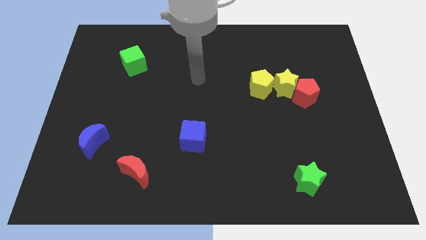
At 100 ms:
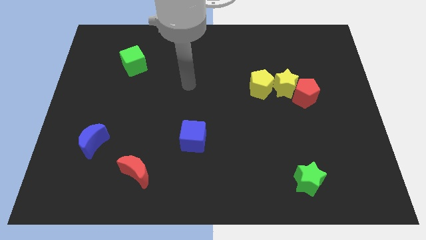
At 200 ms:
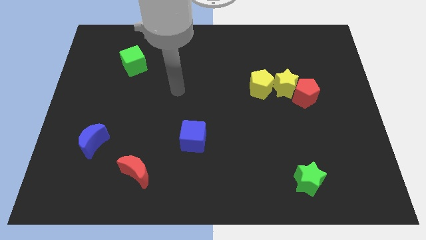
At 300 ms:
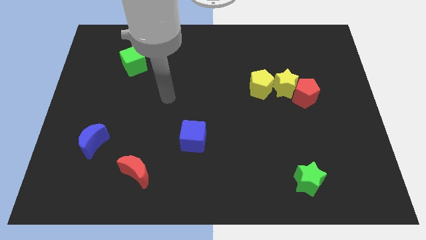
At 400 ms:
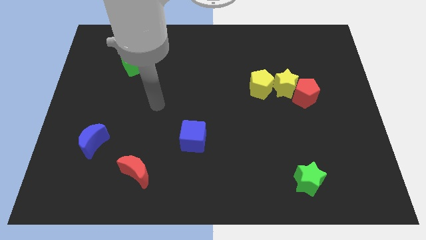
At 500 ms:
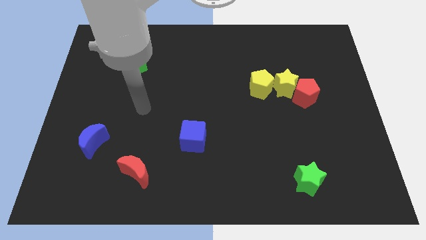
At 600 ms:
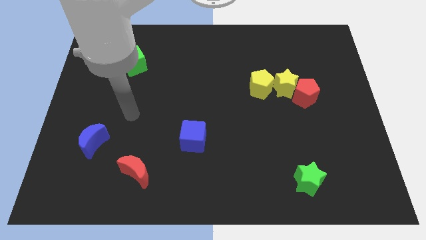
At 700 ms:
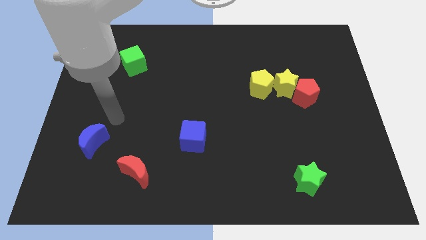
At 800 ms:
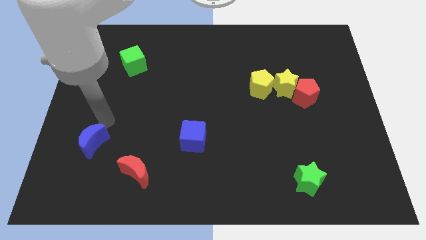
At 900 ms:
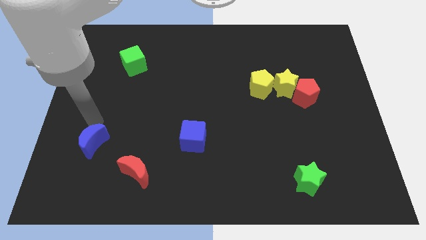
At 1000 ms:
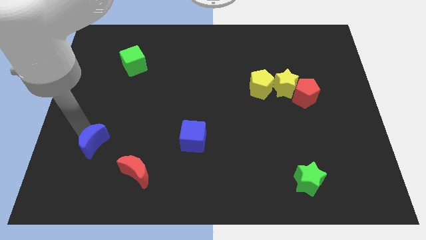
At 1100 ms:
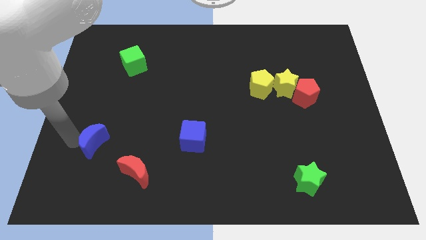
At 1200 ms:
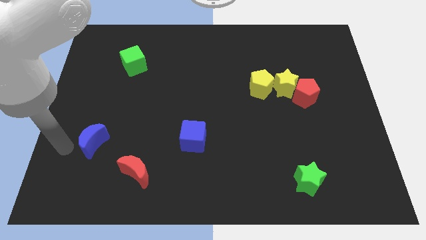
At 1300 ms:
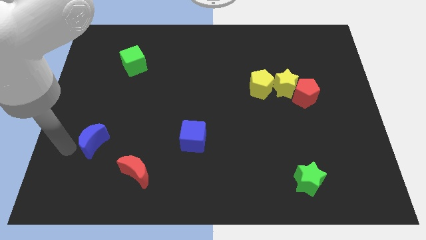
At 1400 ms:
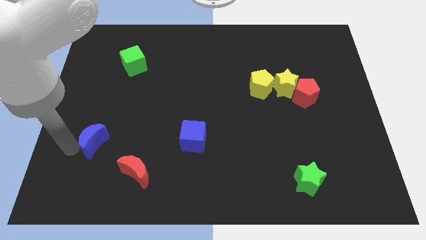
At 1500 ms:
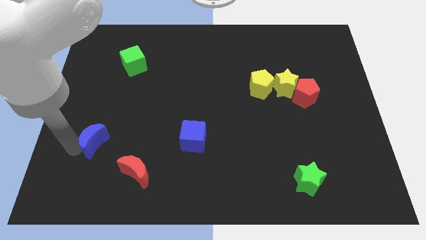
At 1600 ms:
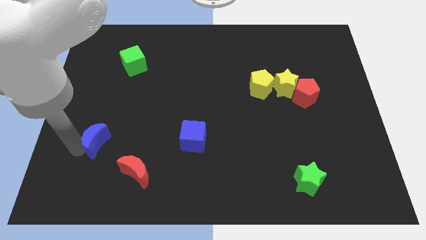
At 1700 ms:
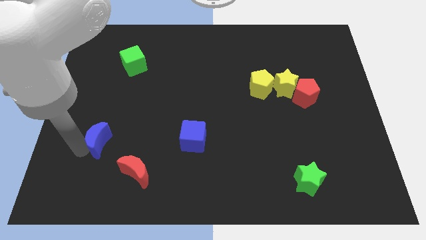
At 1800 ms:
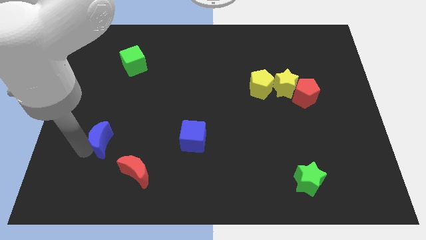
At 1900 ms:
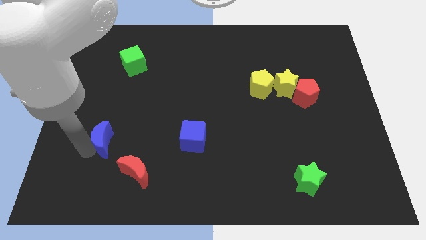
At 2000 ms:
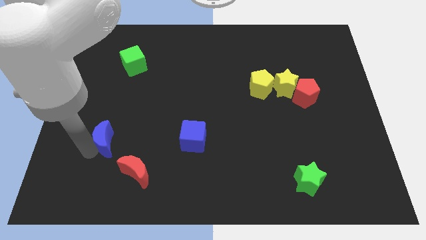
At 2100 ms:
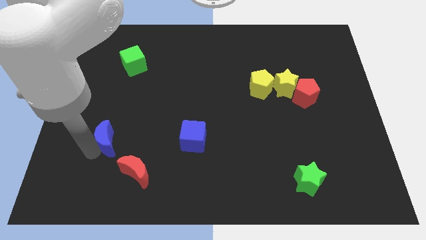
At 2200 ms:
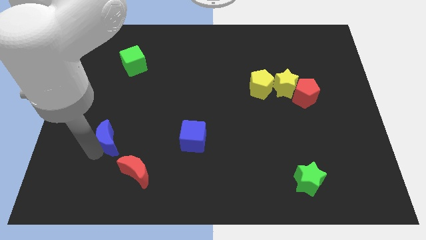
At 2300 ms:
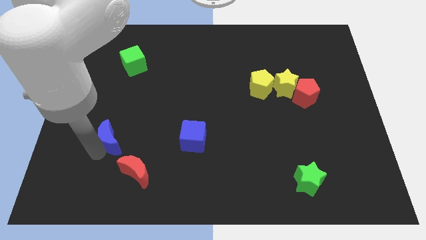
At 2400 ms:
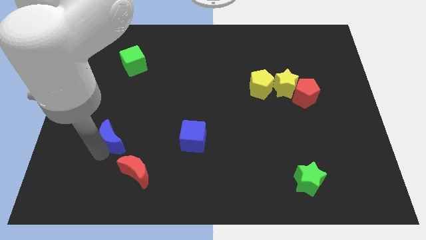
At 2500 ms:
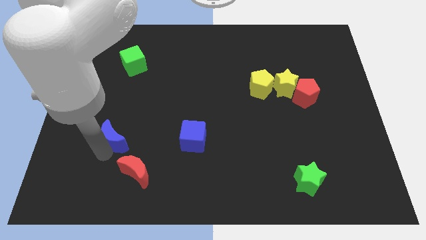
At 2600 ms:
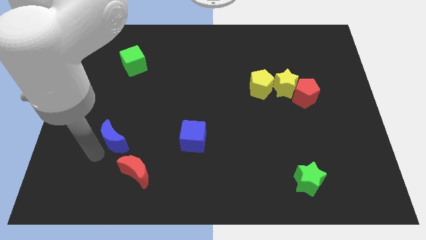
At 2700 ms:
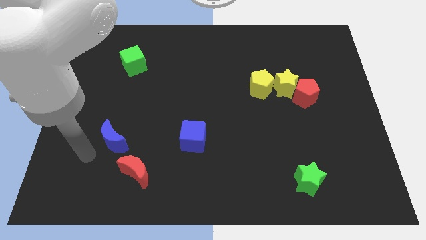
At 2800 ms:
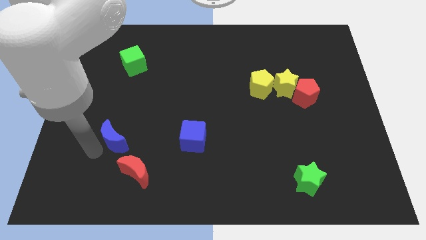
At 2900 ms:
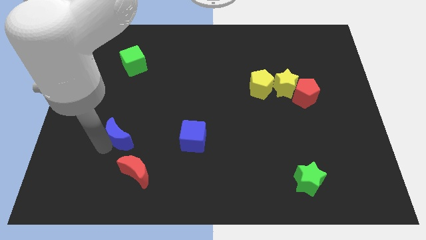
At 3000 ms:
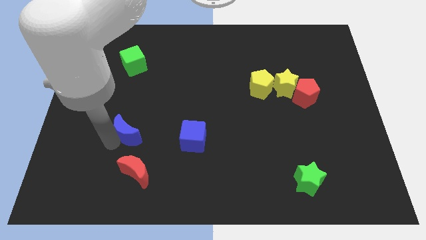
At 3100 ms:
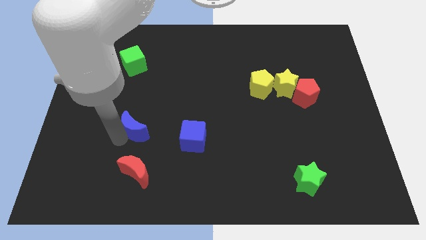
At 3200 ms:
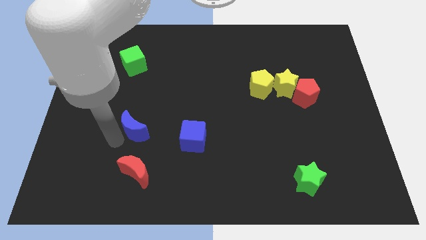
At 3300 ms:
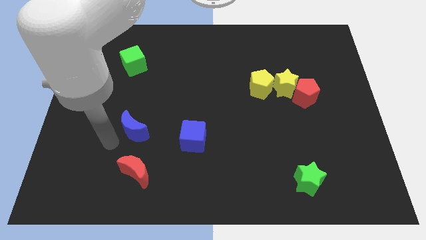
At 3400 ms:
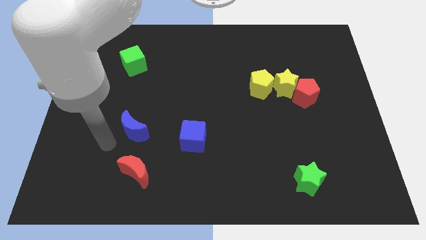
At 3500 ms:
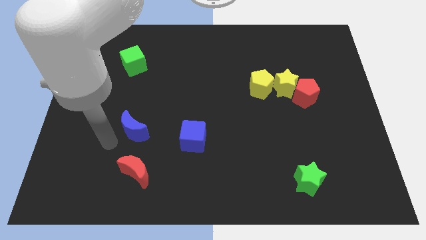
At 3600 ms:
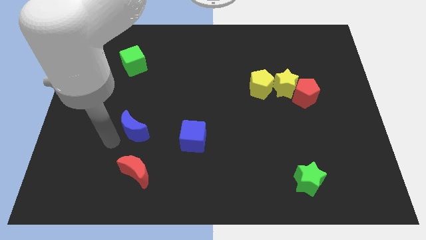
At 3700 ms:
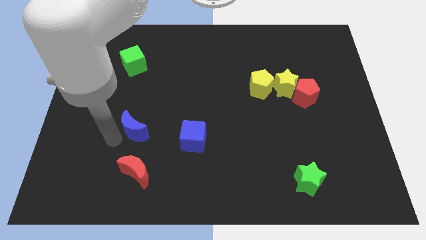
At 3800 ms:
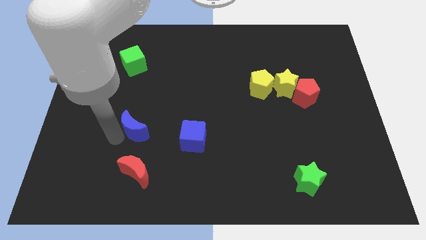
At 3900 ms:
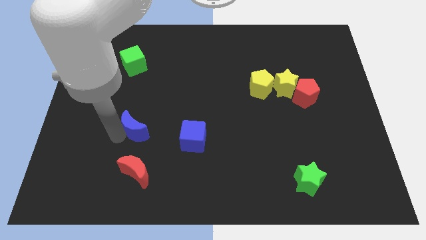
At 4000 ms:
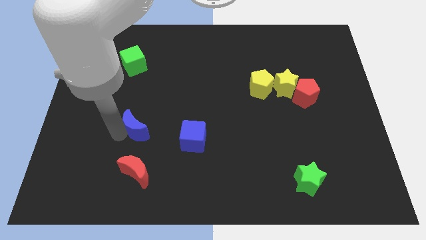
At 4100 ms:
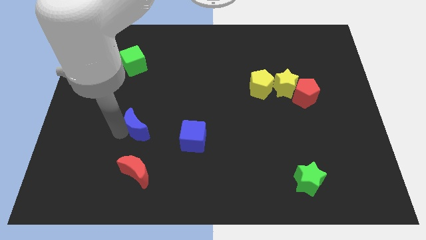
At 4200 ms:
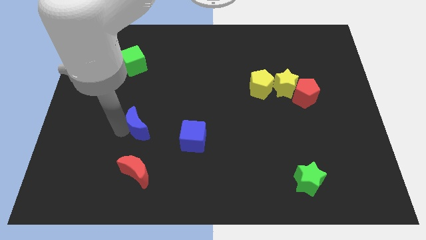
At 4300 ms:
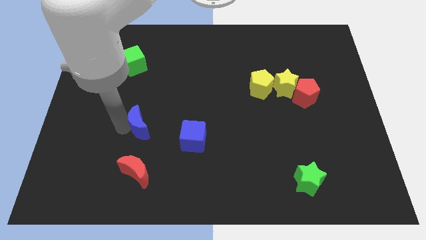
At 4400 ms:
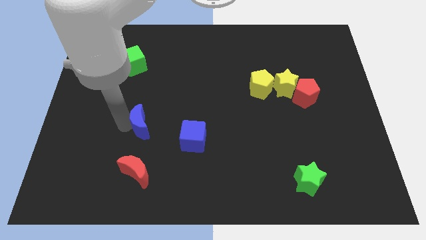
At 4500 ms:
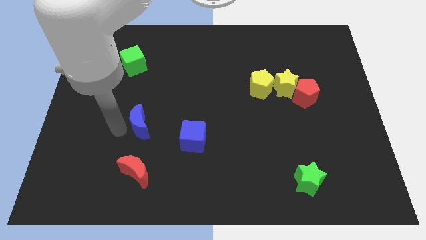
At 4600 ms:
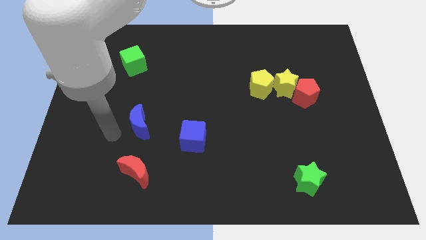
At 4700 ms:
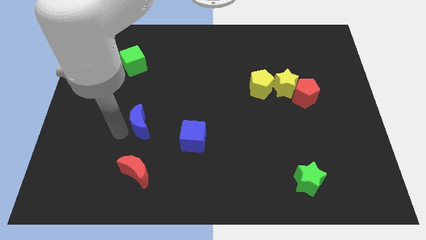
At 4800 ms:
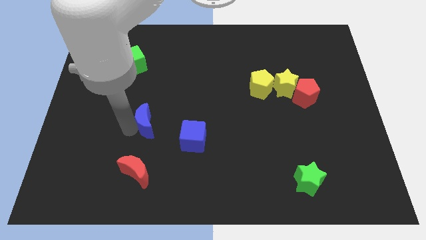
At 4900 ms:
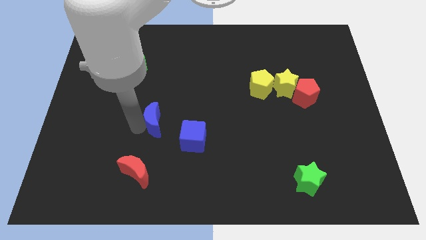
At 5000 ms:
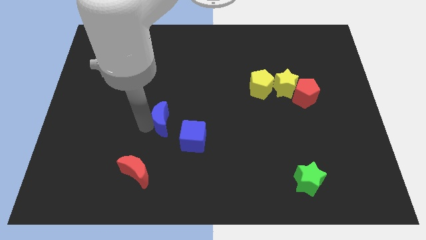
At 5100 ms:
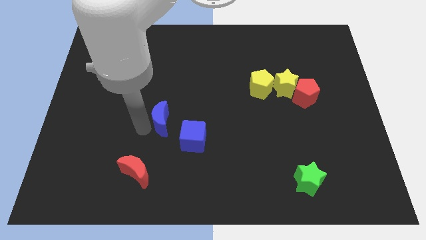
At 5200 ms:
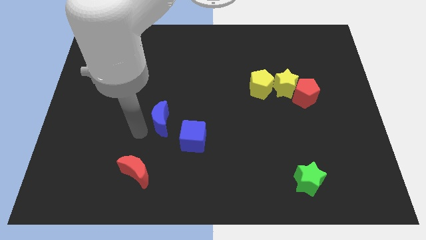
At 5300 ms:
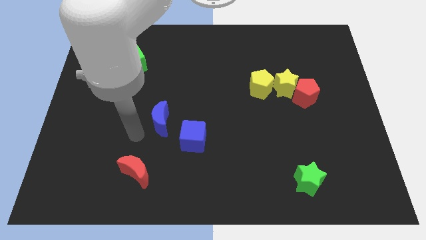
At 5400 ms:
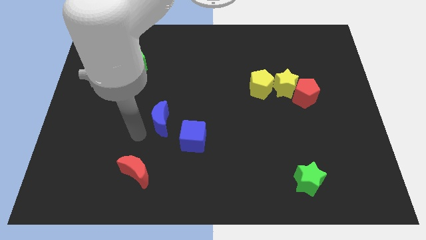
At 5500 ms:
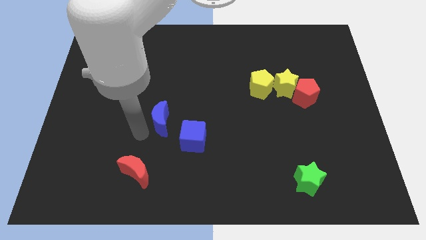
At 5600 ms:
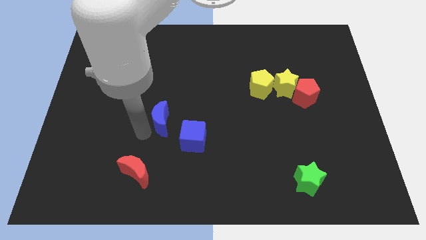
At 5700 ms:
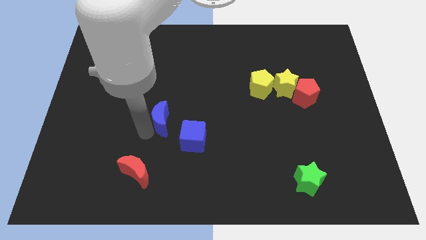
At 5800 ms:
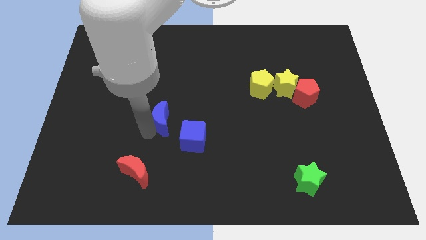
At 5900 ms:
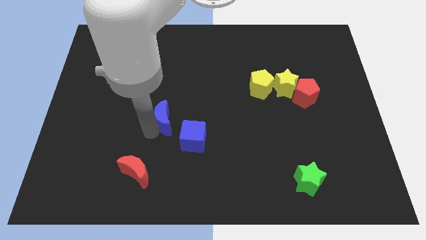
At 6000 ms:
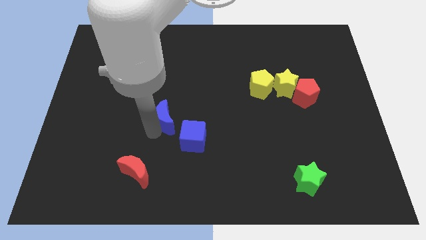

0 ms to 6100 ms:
slide the blue moon to the middle
